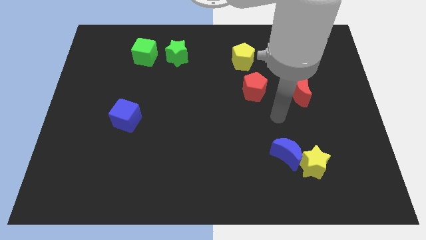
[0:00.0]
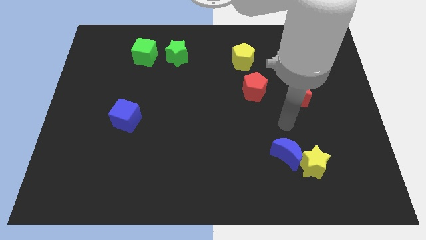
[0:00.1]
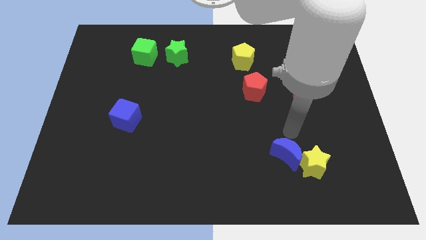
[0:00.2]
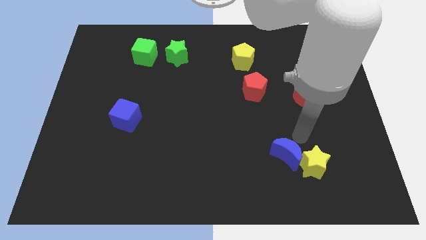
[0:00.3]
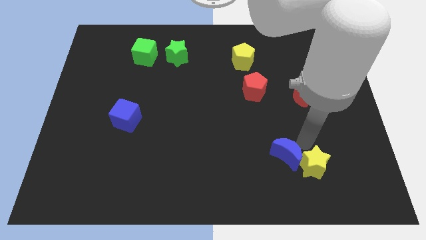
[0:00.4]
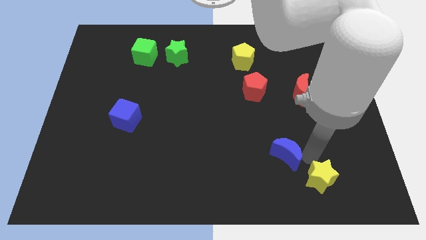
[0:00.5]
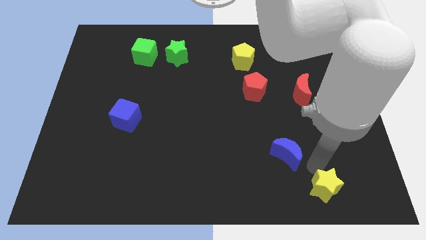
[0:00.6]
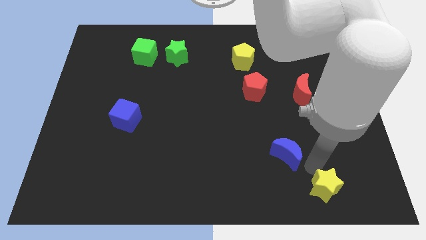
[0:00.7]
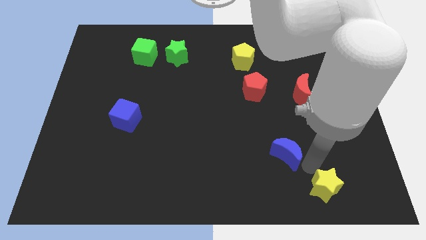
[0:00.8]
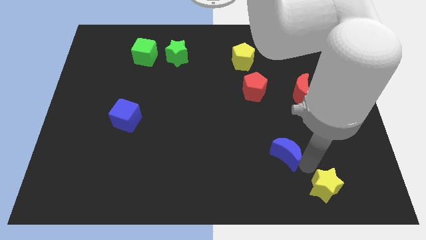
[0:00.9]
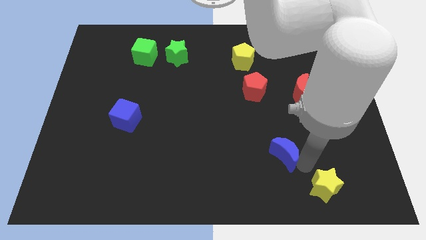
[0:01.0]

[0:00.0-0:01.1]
separate the blue moon from the yellow star

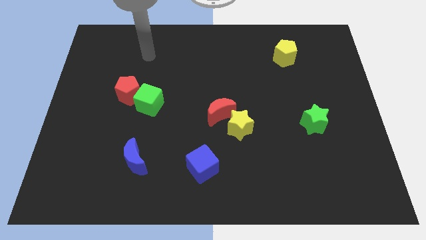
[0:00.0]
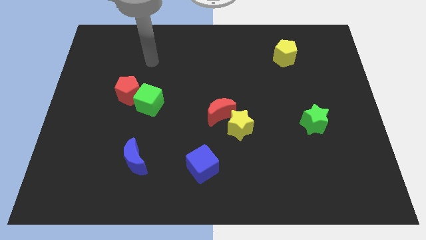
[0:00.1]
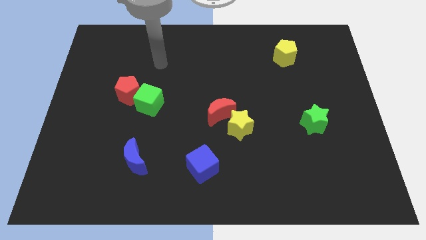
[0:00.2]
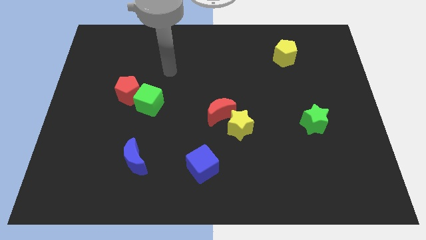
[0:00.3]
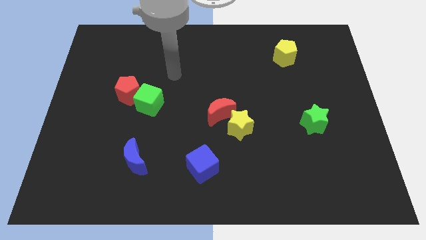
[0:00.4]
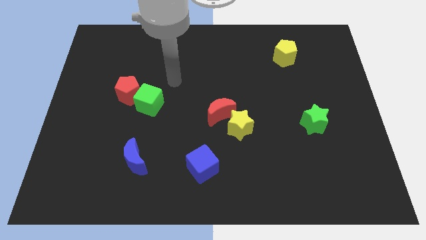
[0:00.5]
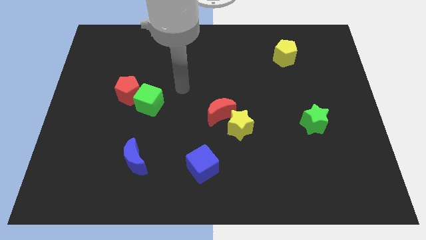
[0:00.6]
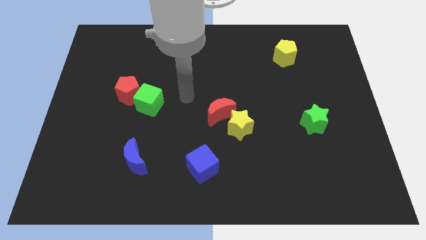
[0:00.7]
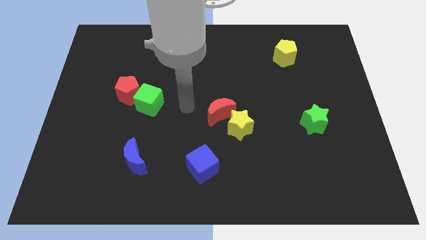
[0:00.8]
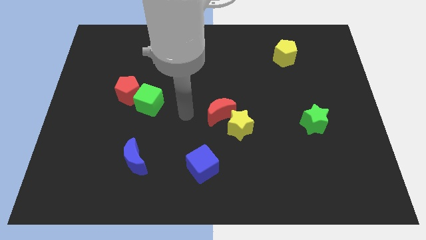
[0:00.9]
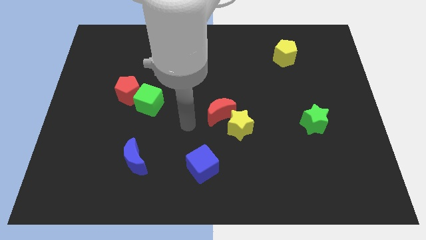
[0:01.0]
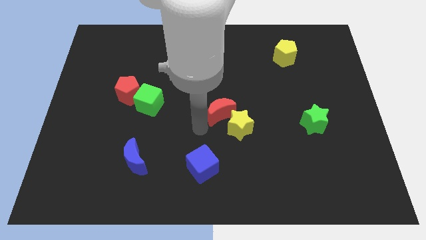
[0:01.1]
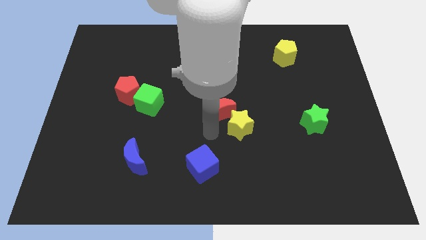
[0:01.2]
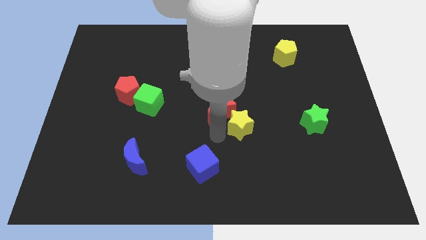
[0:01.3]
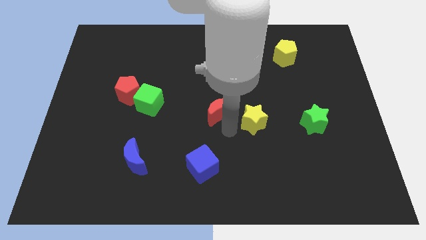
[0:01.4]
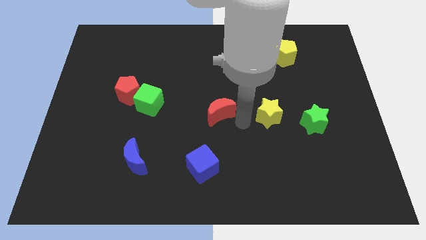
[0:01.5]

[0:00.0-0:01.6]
move the red moon away from the yellow star

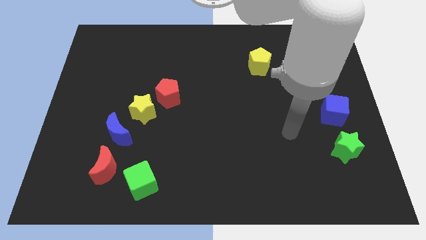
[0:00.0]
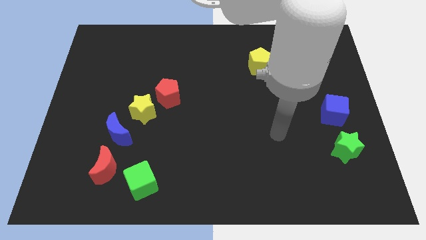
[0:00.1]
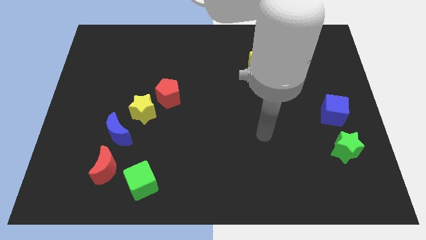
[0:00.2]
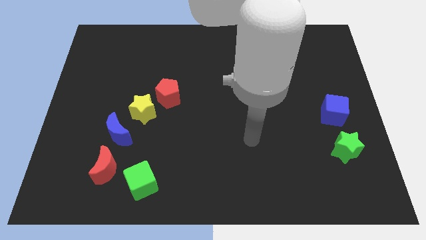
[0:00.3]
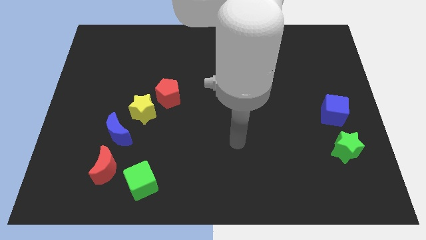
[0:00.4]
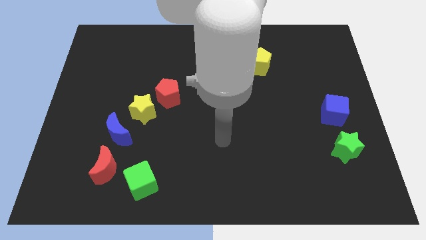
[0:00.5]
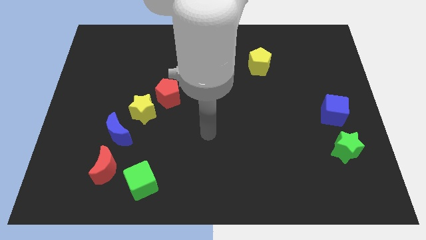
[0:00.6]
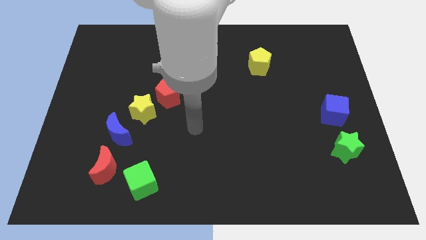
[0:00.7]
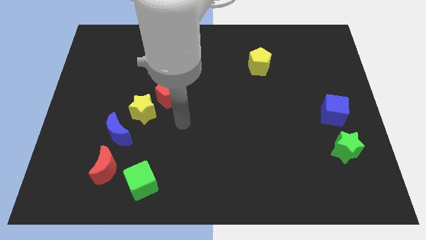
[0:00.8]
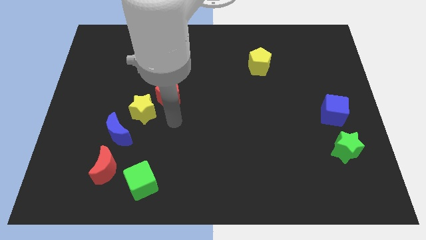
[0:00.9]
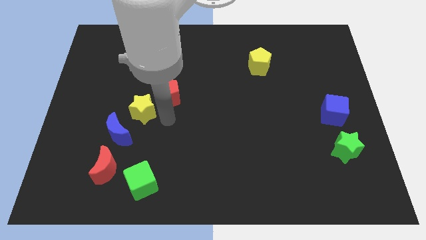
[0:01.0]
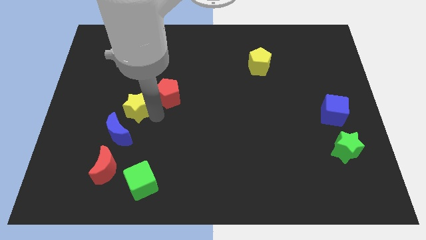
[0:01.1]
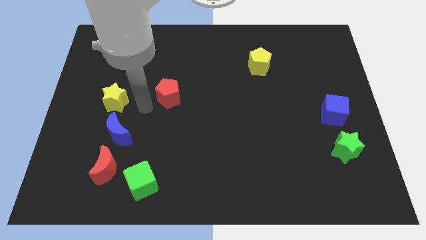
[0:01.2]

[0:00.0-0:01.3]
pull the red pentagon apart from the yellow star

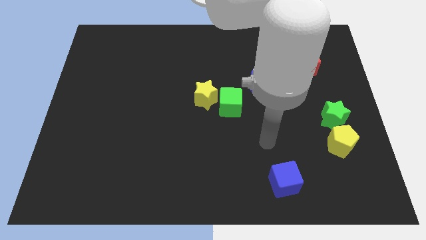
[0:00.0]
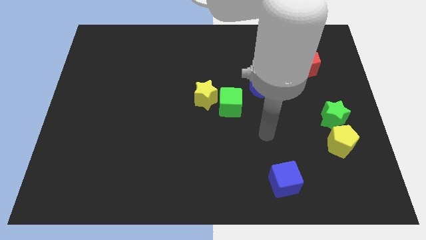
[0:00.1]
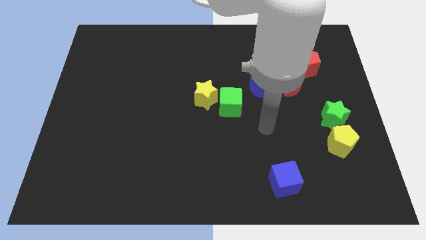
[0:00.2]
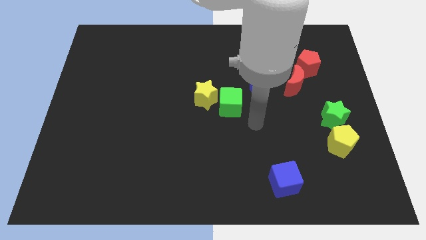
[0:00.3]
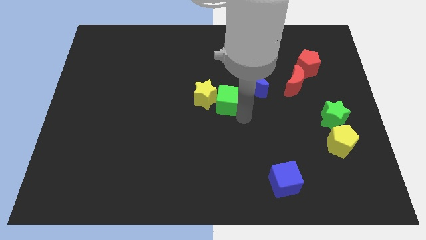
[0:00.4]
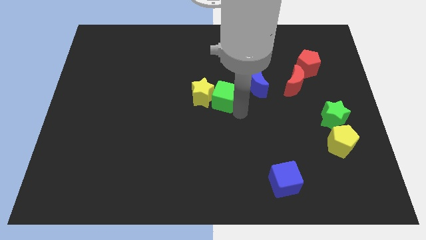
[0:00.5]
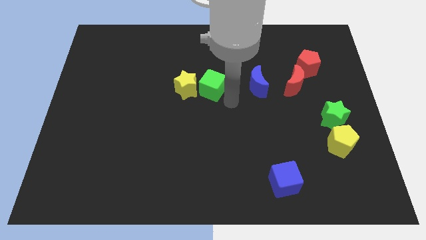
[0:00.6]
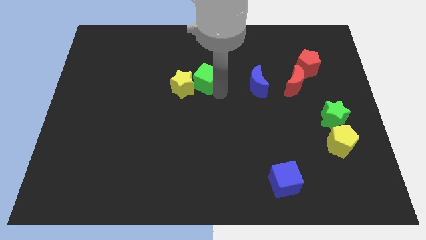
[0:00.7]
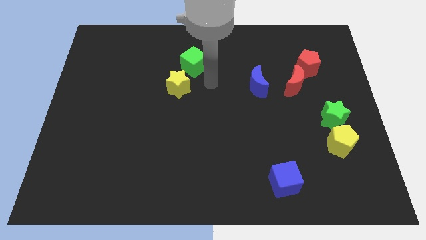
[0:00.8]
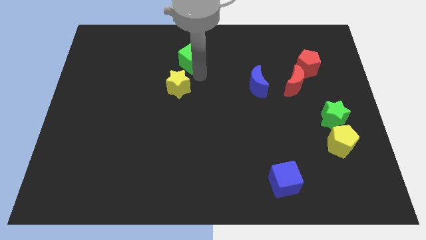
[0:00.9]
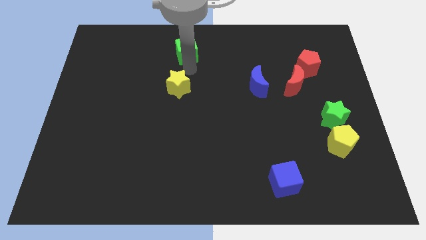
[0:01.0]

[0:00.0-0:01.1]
pull the yellow star apart from the green cube

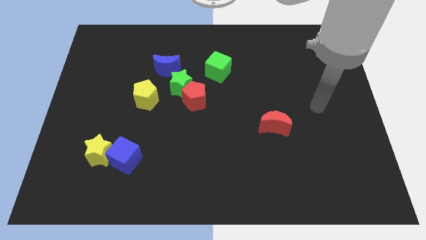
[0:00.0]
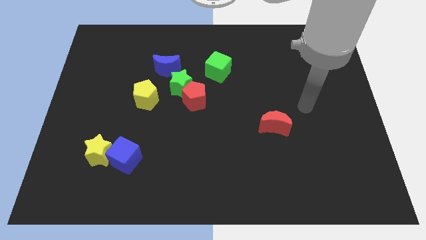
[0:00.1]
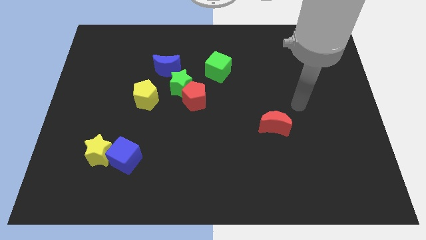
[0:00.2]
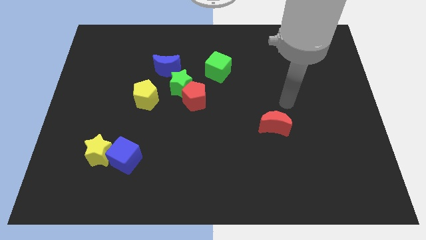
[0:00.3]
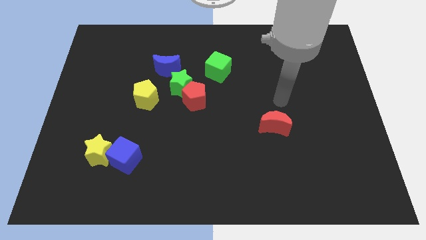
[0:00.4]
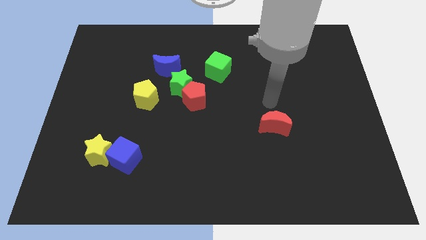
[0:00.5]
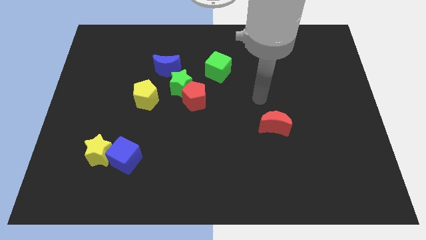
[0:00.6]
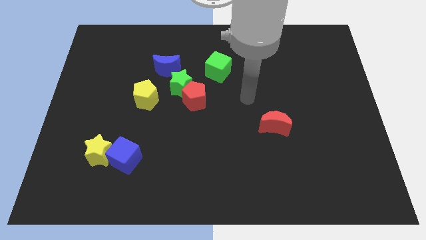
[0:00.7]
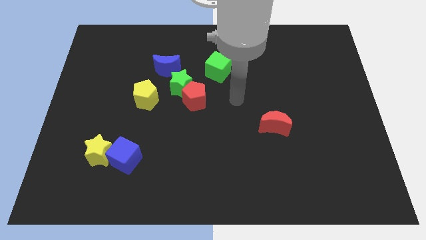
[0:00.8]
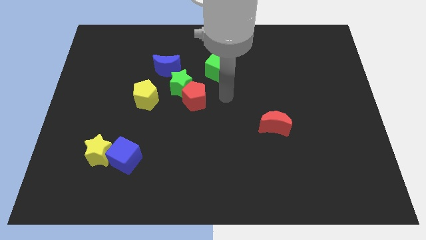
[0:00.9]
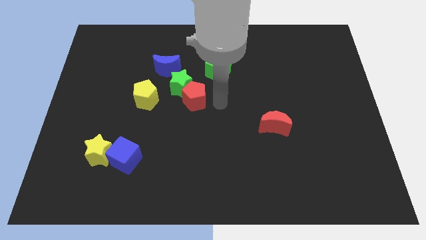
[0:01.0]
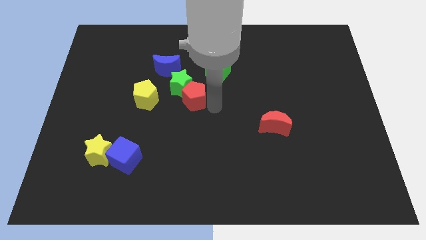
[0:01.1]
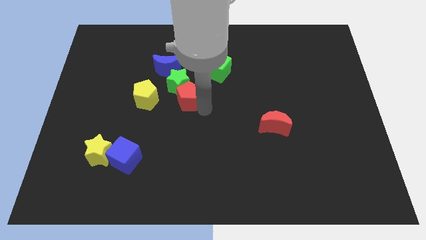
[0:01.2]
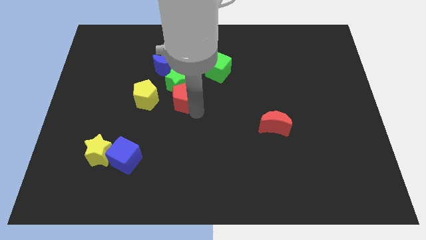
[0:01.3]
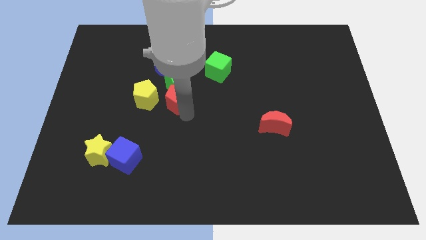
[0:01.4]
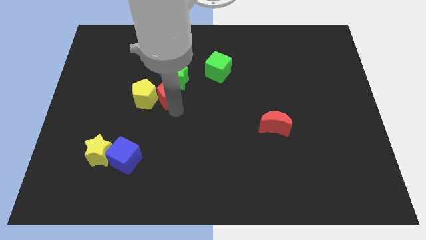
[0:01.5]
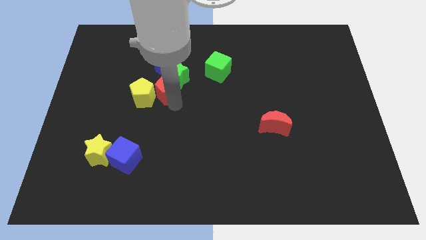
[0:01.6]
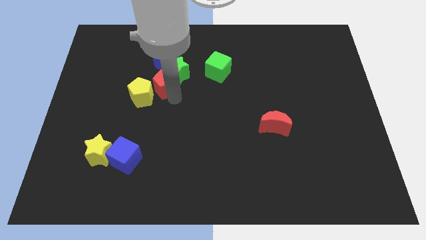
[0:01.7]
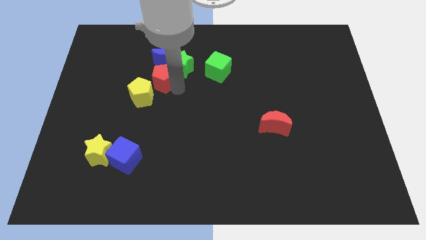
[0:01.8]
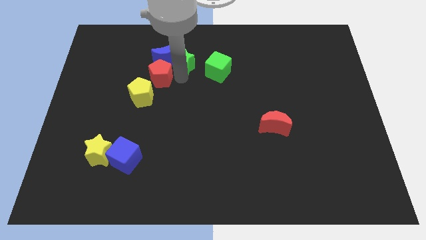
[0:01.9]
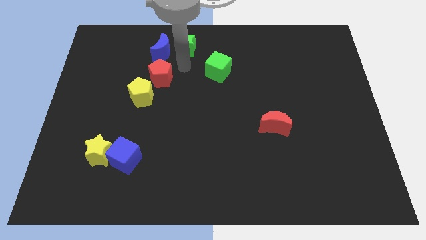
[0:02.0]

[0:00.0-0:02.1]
move the red pentagon away from the green star

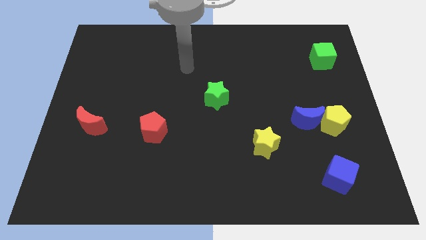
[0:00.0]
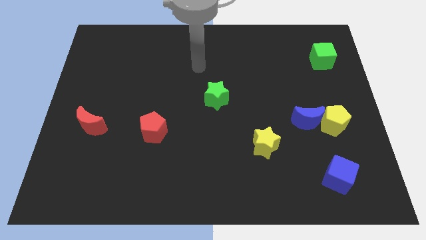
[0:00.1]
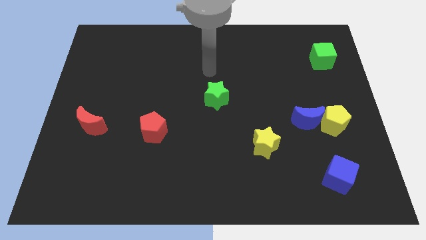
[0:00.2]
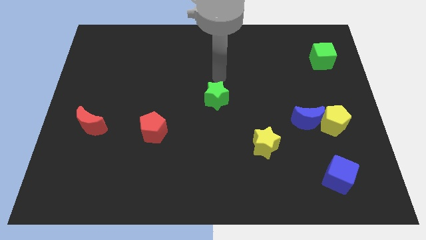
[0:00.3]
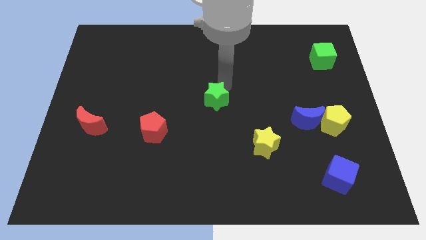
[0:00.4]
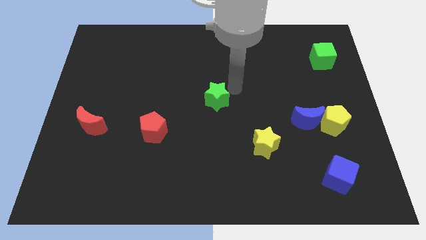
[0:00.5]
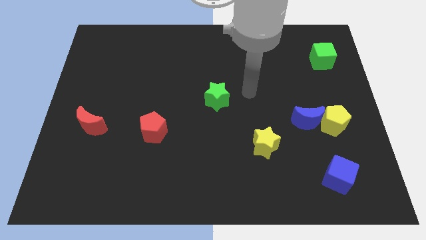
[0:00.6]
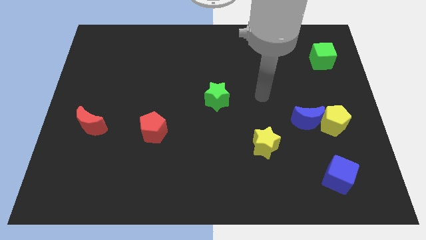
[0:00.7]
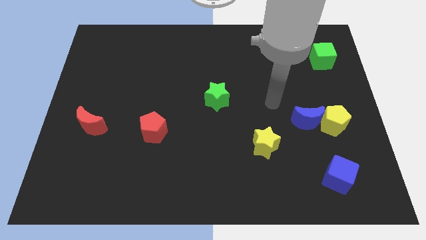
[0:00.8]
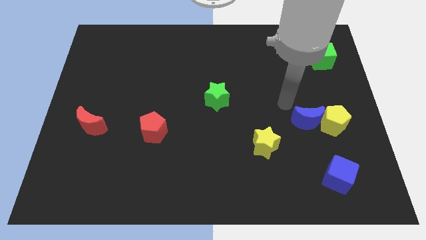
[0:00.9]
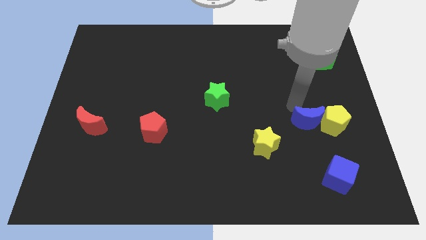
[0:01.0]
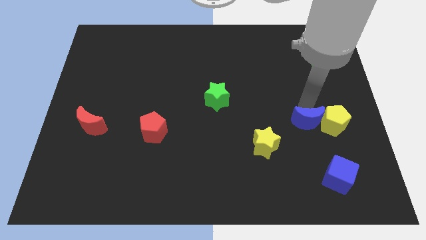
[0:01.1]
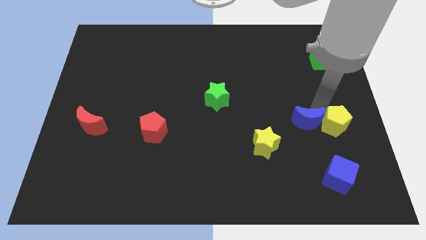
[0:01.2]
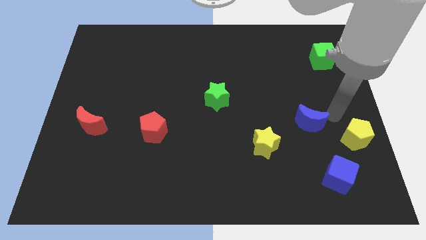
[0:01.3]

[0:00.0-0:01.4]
separate the blue moon from the yellow pentagon

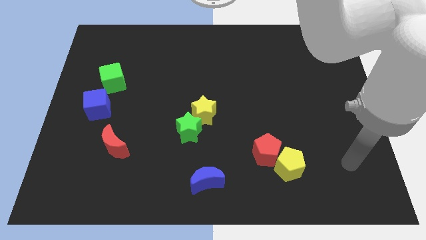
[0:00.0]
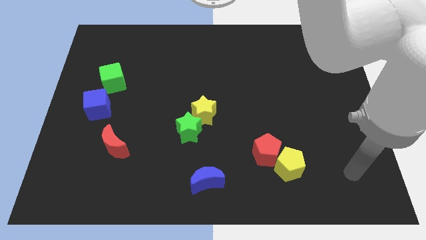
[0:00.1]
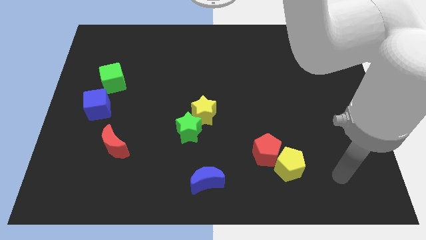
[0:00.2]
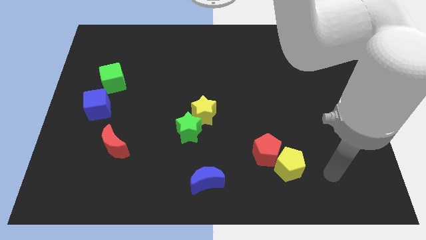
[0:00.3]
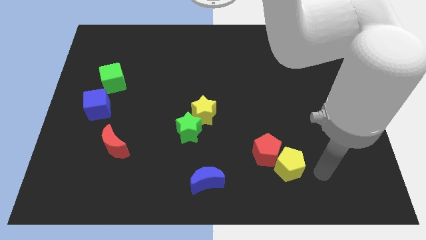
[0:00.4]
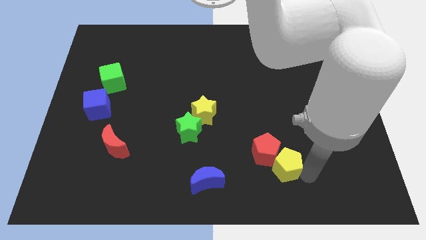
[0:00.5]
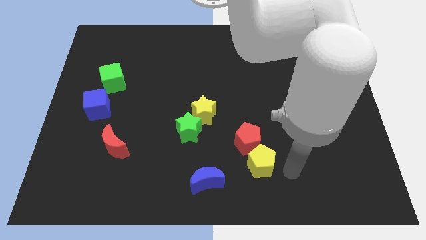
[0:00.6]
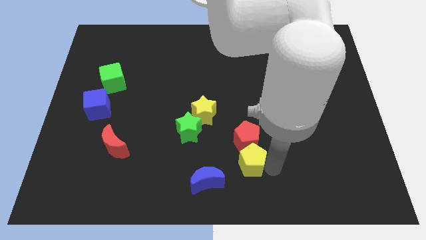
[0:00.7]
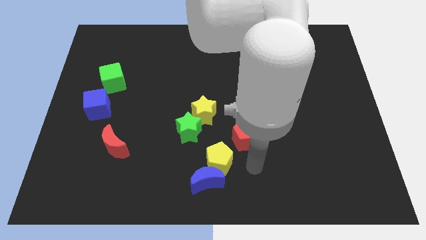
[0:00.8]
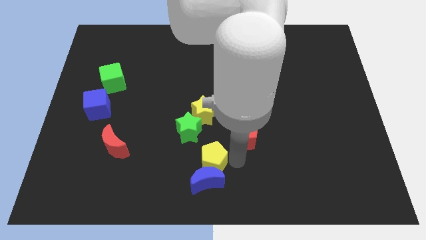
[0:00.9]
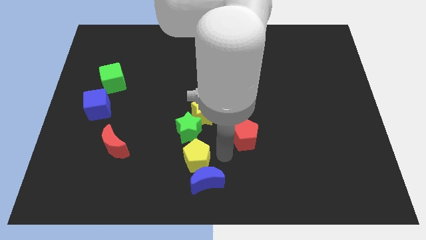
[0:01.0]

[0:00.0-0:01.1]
separate the red pentagon from the yellow pentagon
